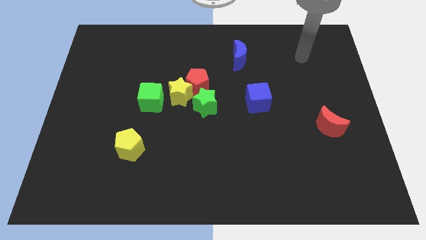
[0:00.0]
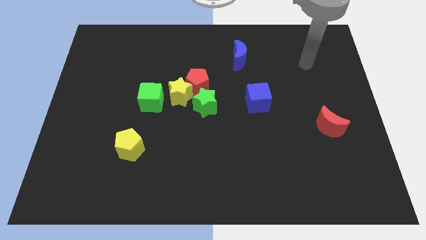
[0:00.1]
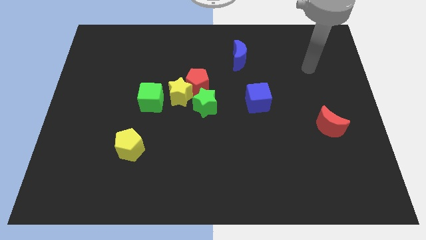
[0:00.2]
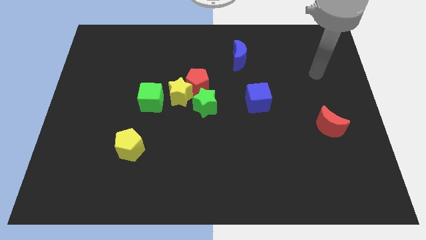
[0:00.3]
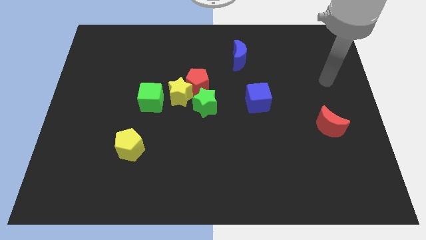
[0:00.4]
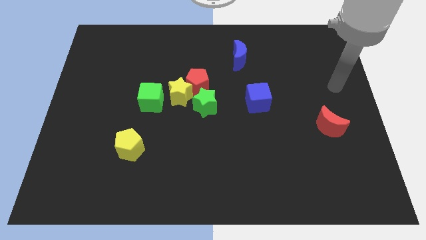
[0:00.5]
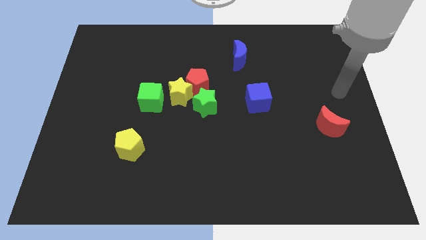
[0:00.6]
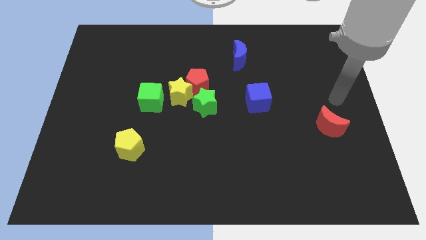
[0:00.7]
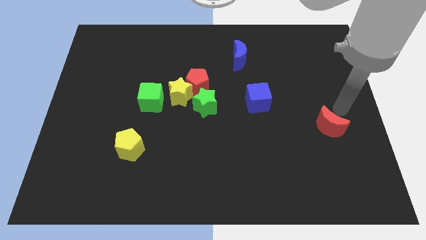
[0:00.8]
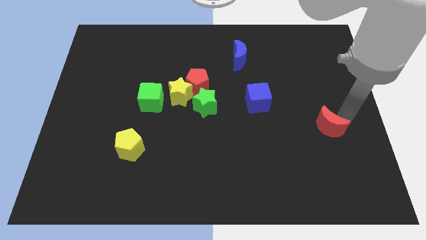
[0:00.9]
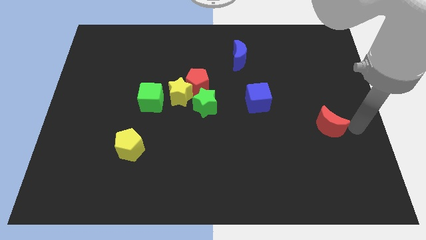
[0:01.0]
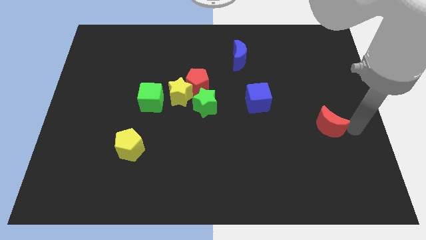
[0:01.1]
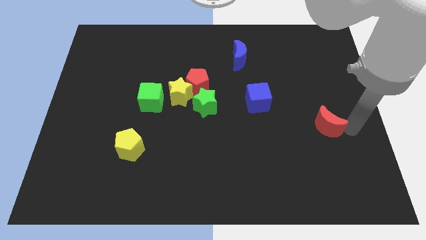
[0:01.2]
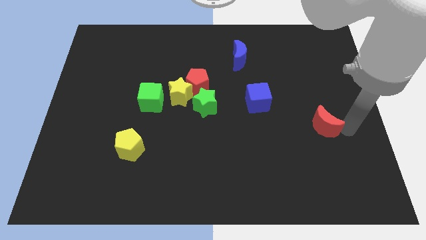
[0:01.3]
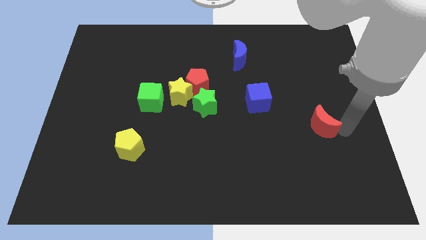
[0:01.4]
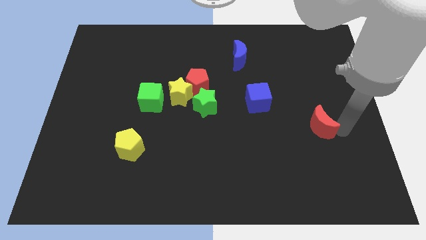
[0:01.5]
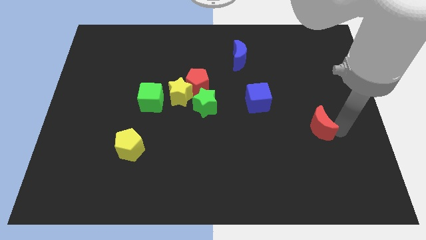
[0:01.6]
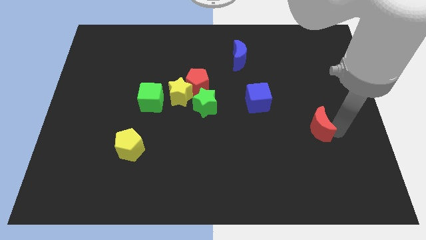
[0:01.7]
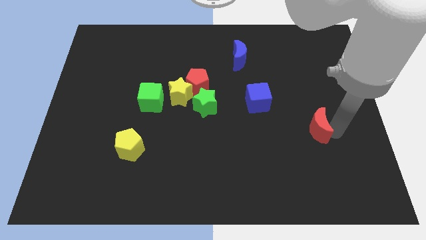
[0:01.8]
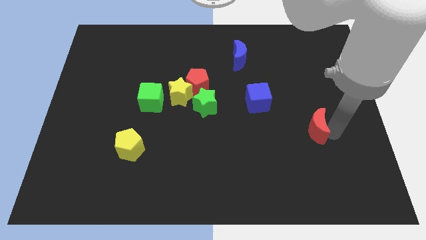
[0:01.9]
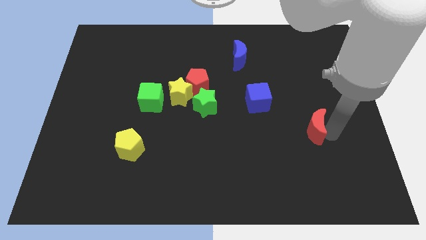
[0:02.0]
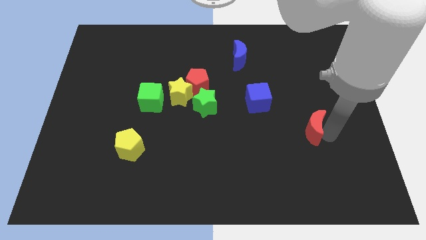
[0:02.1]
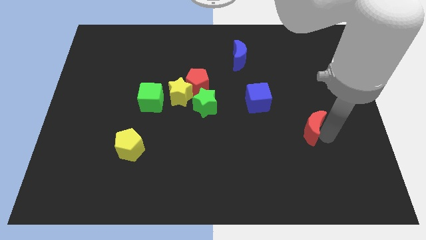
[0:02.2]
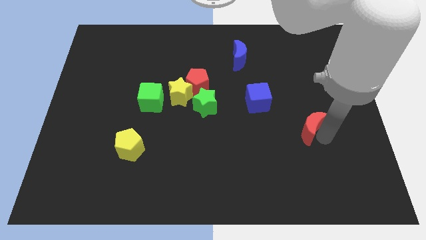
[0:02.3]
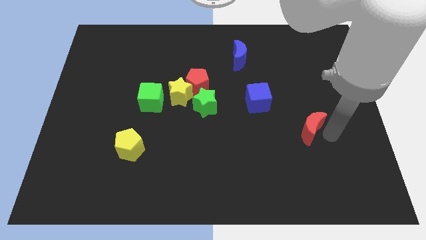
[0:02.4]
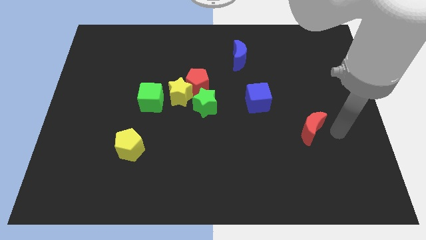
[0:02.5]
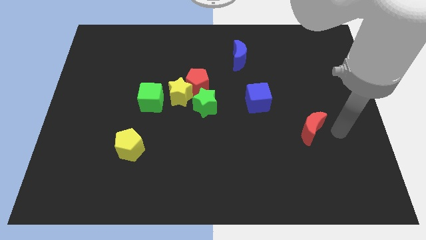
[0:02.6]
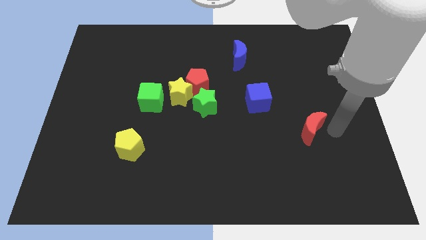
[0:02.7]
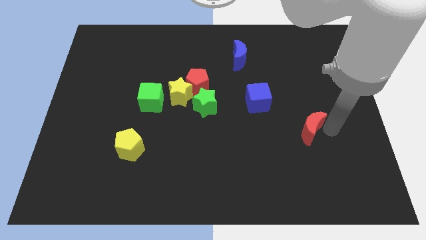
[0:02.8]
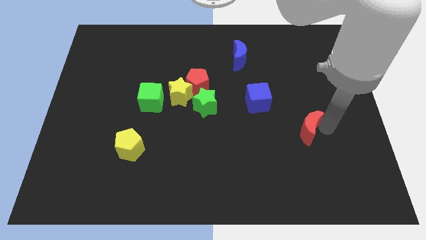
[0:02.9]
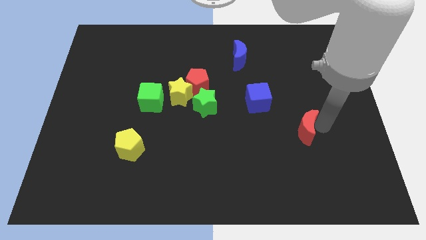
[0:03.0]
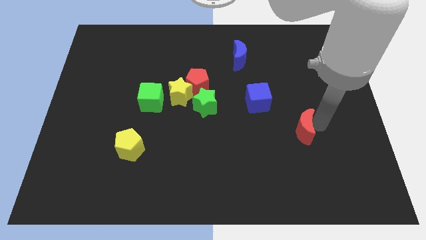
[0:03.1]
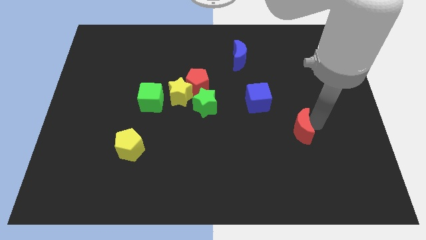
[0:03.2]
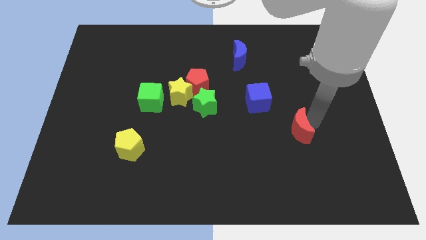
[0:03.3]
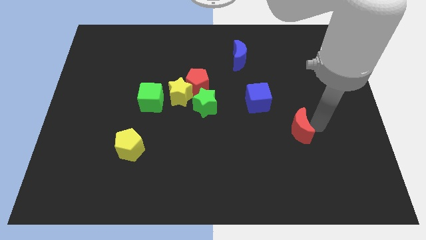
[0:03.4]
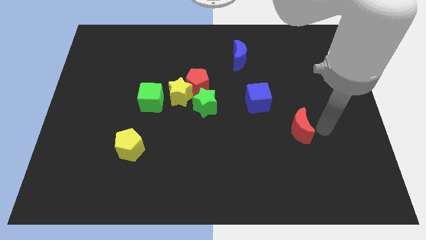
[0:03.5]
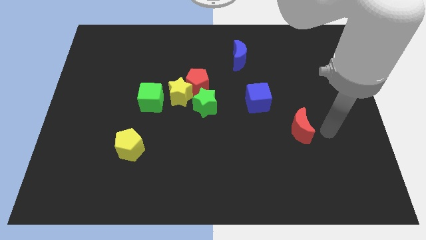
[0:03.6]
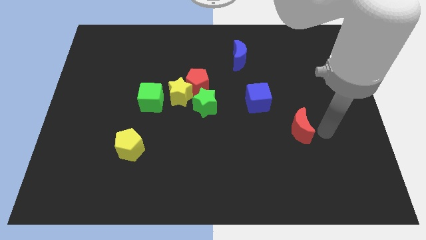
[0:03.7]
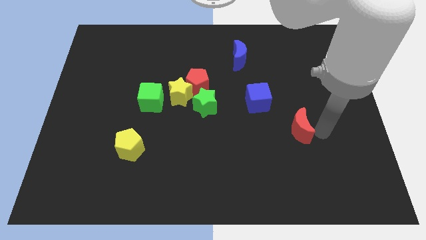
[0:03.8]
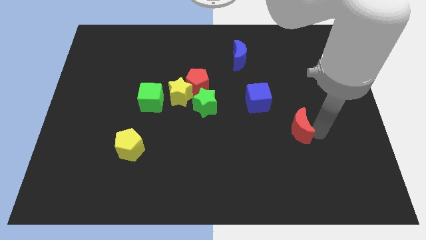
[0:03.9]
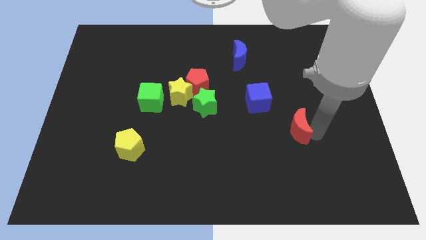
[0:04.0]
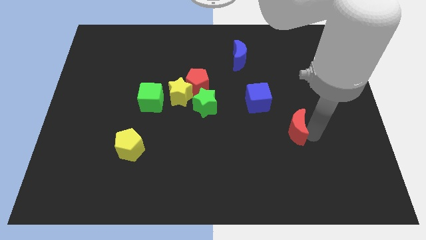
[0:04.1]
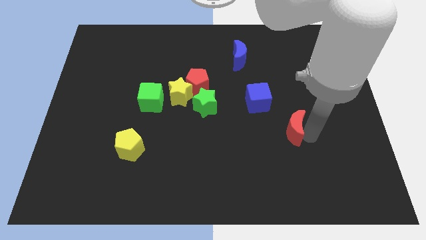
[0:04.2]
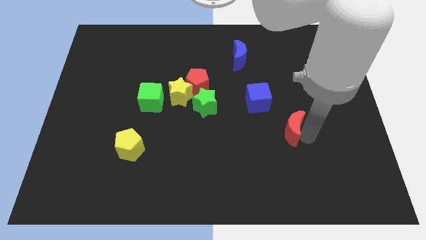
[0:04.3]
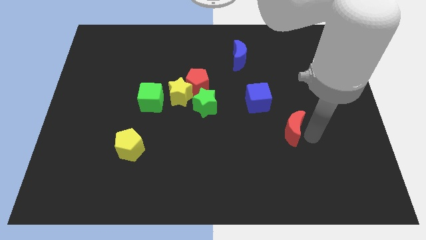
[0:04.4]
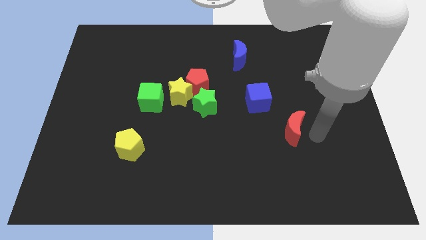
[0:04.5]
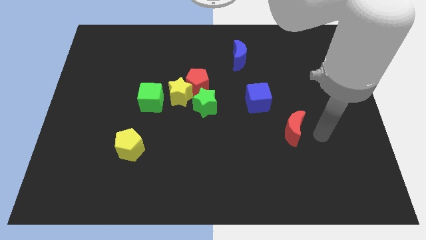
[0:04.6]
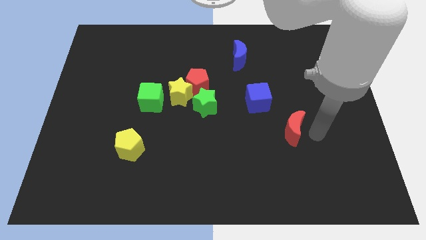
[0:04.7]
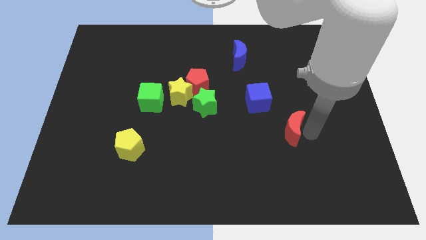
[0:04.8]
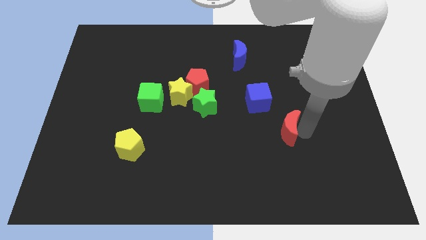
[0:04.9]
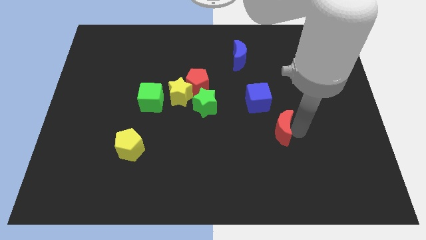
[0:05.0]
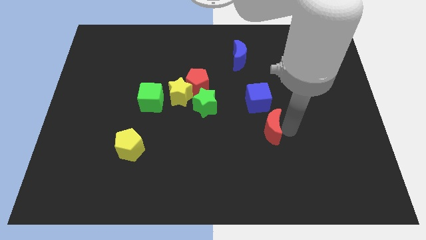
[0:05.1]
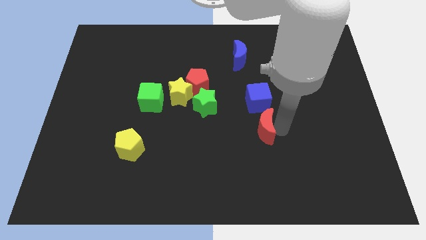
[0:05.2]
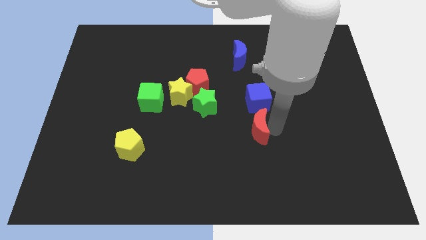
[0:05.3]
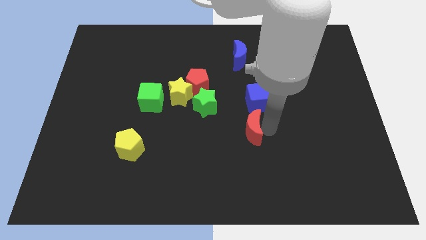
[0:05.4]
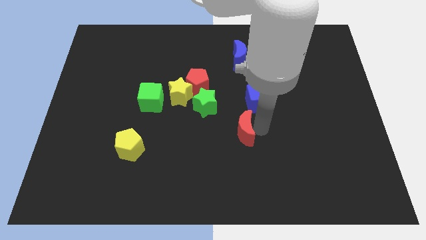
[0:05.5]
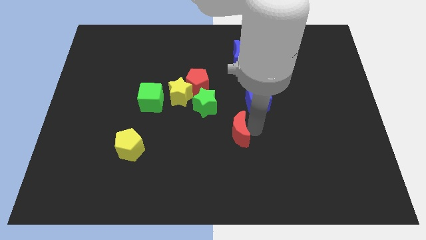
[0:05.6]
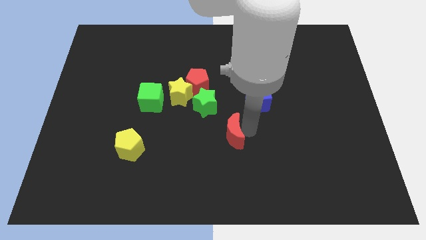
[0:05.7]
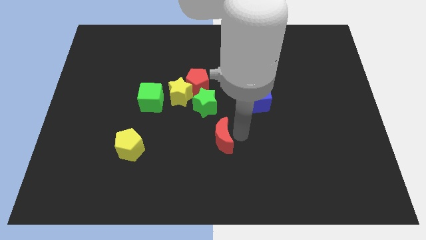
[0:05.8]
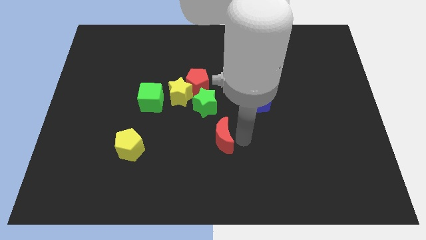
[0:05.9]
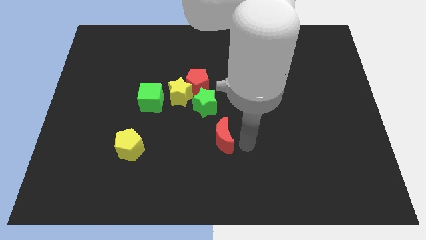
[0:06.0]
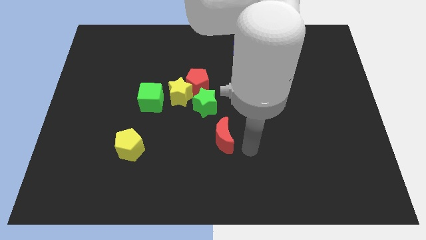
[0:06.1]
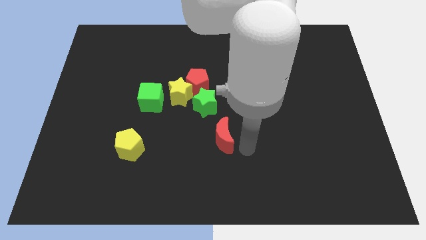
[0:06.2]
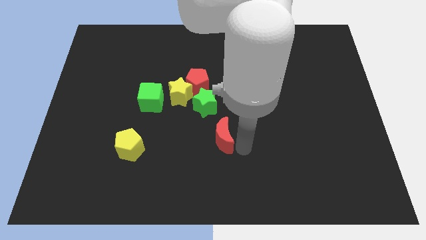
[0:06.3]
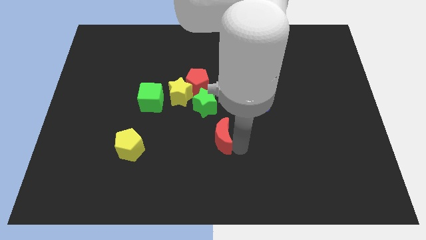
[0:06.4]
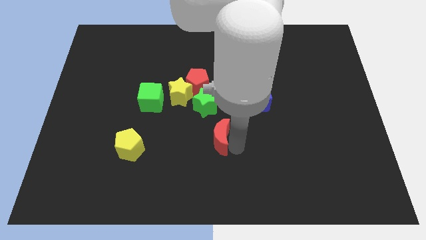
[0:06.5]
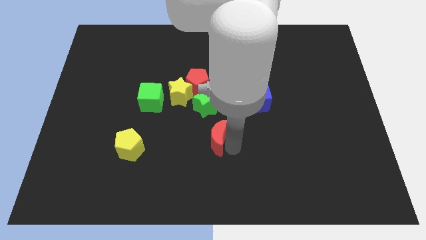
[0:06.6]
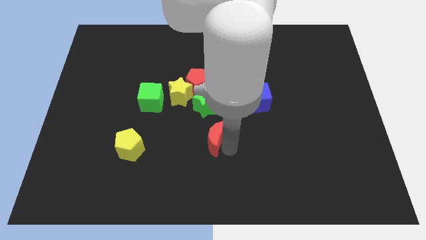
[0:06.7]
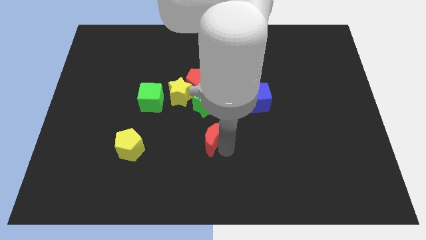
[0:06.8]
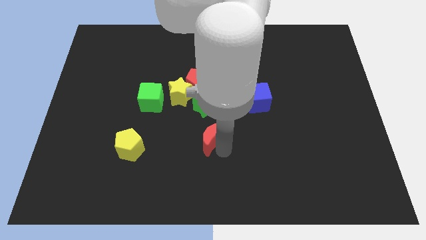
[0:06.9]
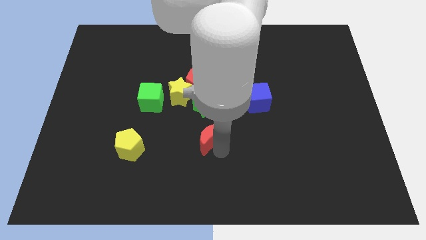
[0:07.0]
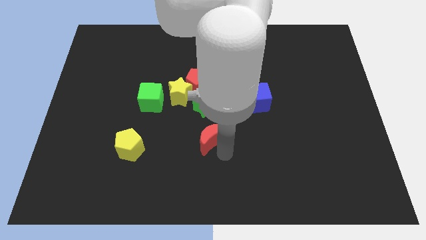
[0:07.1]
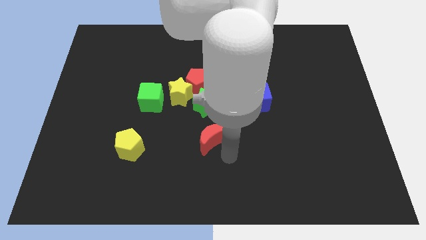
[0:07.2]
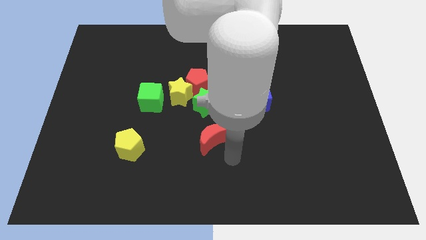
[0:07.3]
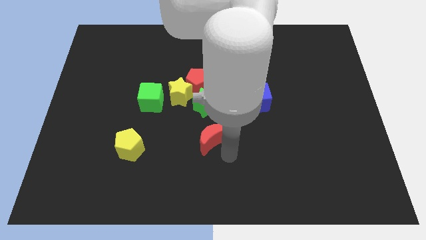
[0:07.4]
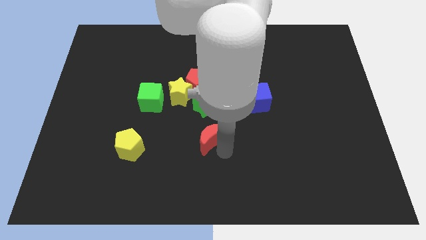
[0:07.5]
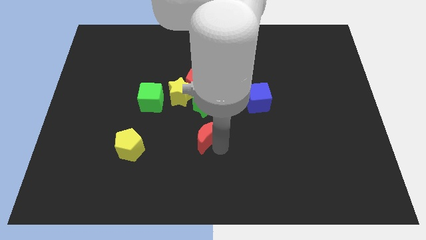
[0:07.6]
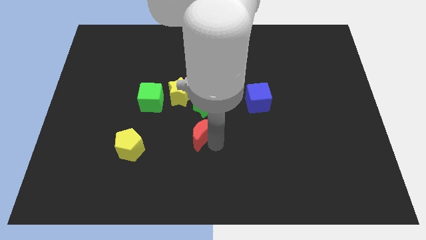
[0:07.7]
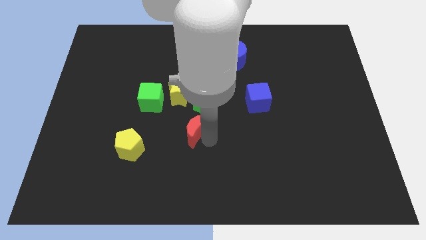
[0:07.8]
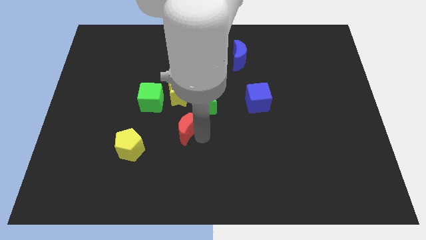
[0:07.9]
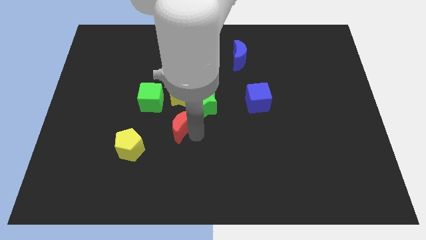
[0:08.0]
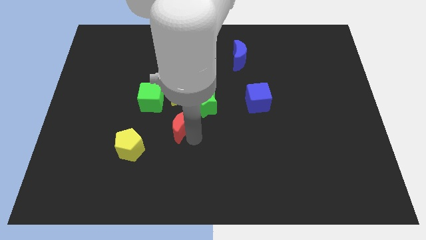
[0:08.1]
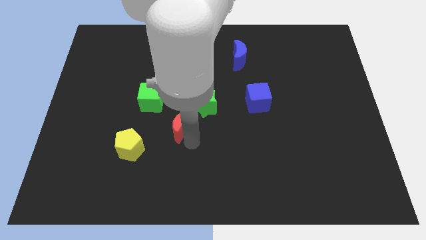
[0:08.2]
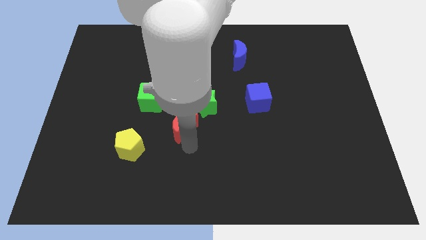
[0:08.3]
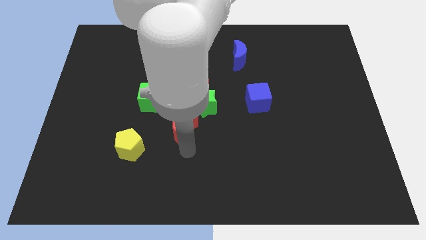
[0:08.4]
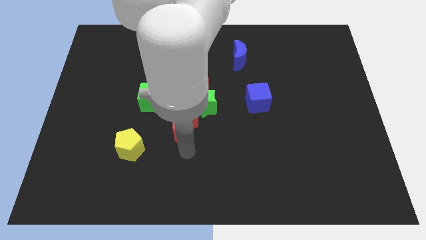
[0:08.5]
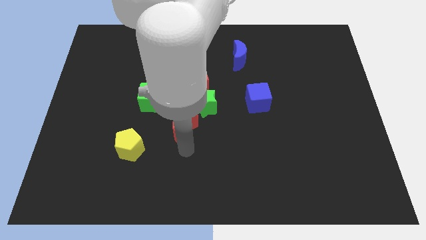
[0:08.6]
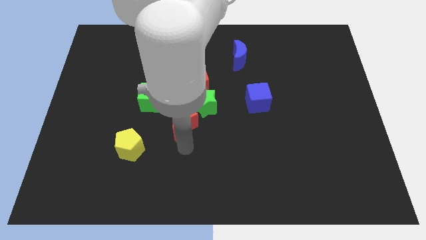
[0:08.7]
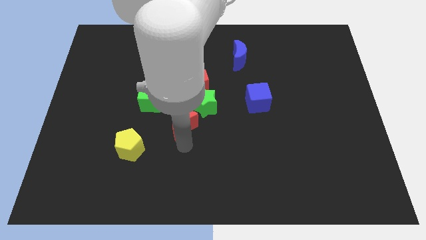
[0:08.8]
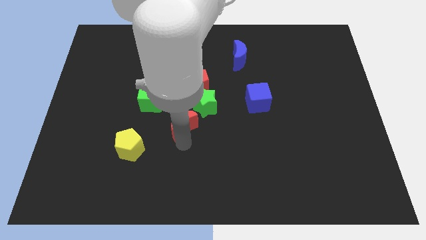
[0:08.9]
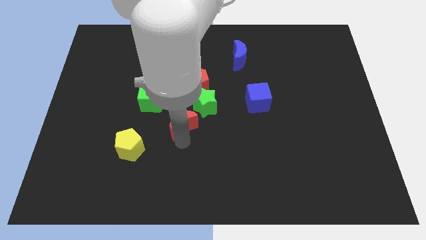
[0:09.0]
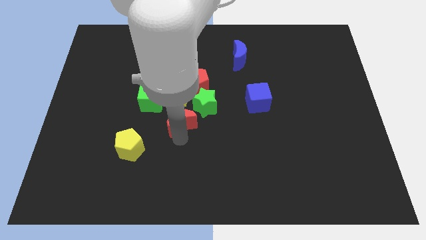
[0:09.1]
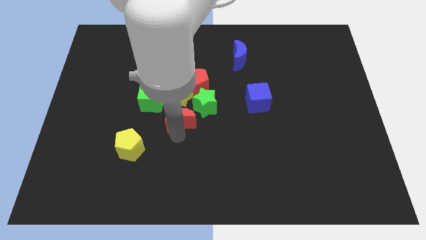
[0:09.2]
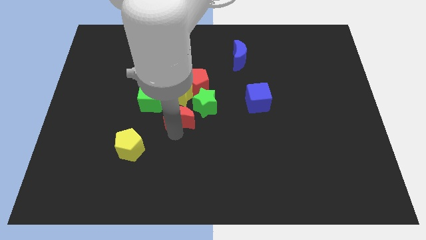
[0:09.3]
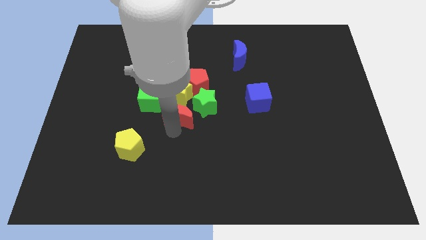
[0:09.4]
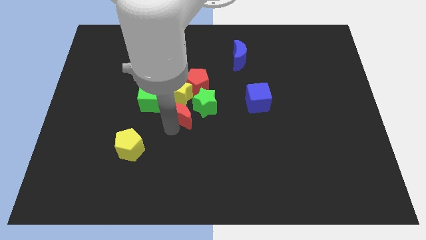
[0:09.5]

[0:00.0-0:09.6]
push the red moon next to the yellow star
